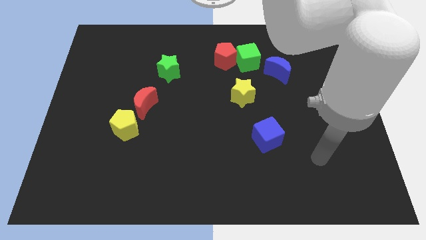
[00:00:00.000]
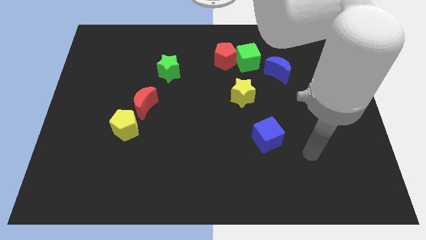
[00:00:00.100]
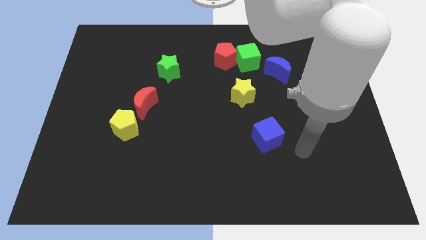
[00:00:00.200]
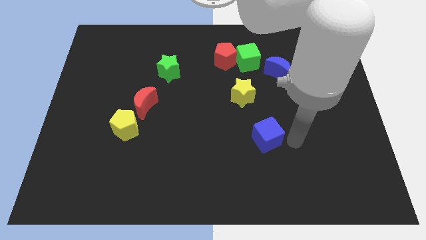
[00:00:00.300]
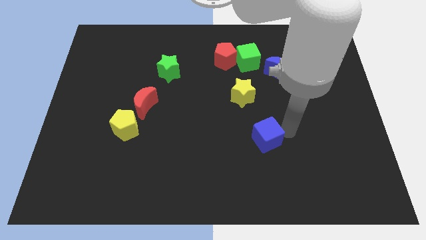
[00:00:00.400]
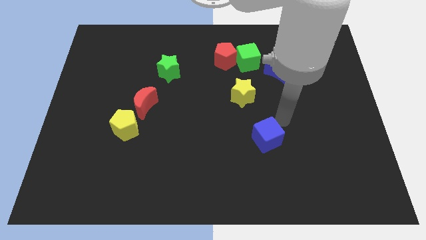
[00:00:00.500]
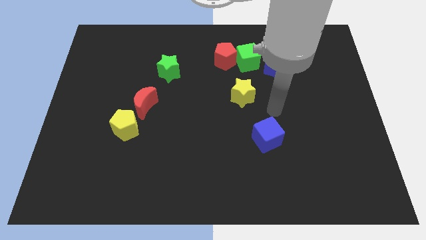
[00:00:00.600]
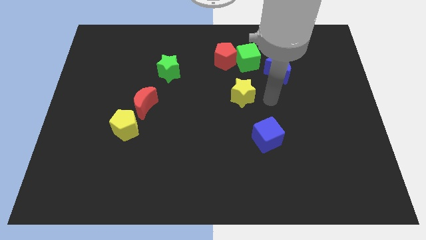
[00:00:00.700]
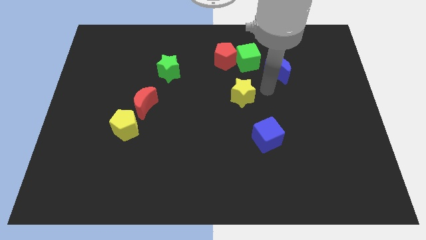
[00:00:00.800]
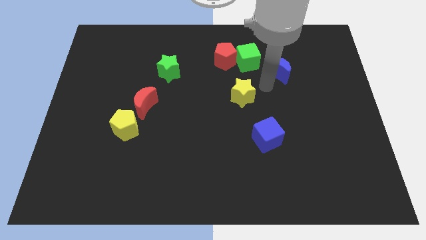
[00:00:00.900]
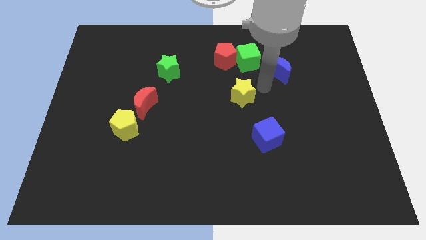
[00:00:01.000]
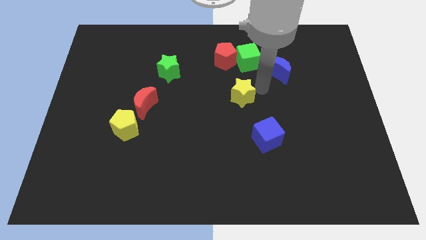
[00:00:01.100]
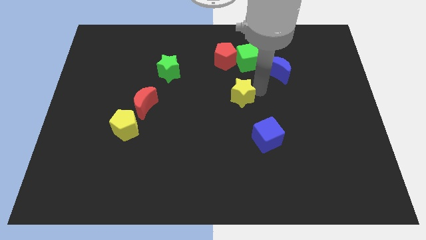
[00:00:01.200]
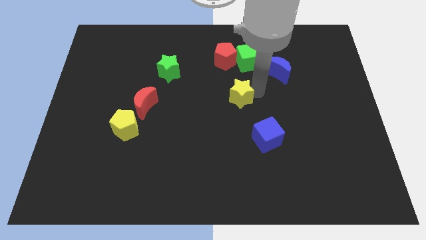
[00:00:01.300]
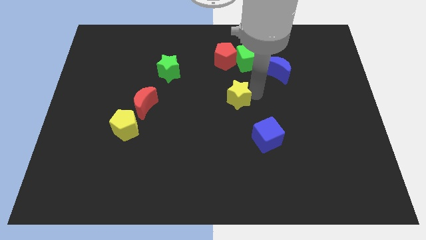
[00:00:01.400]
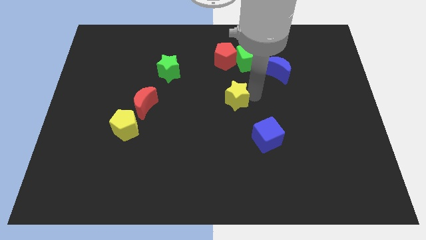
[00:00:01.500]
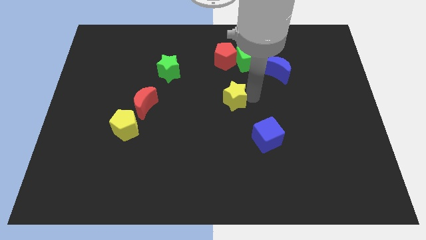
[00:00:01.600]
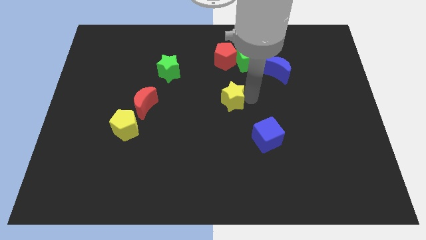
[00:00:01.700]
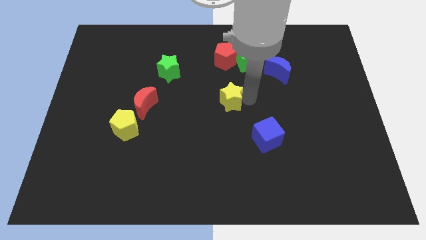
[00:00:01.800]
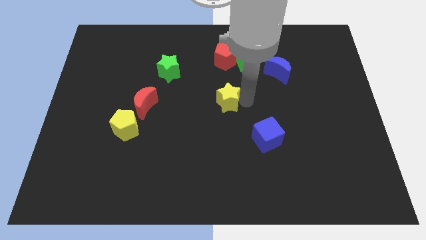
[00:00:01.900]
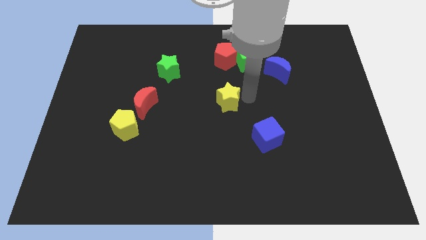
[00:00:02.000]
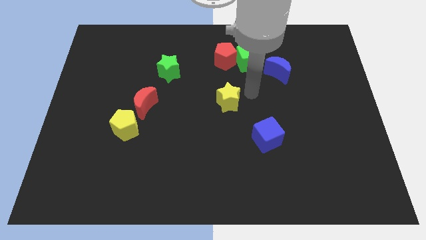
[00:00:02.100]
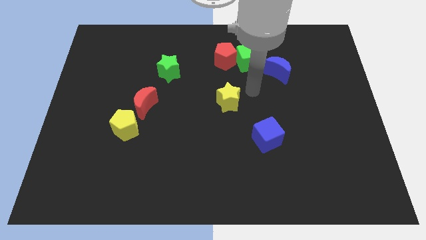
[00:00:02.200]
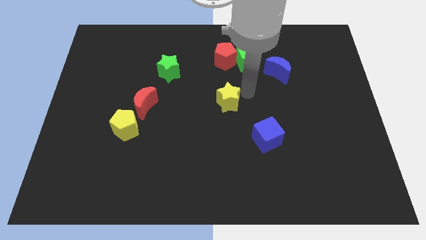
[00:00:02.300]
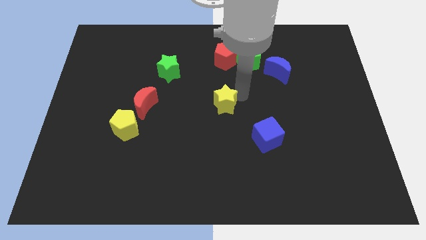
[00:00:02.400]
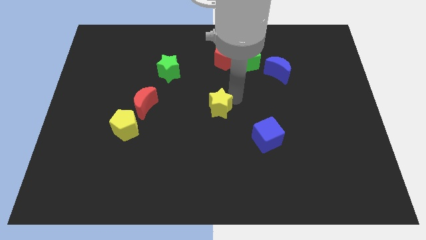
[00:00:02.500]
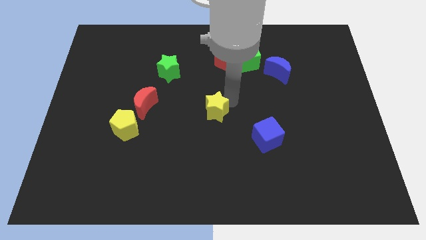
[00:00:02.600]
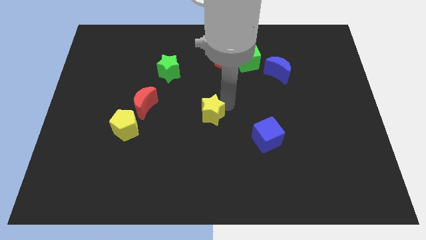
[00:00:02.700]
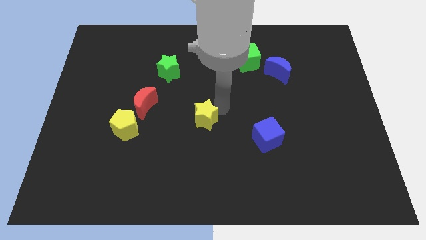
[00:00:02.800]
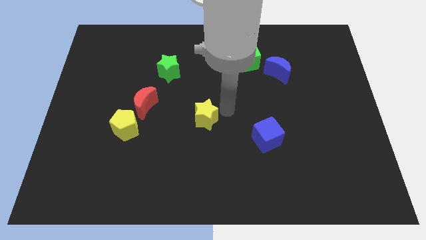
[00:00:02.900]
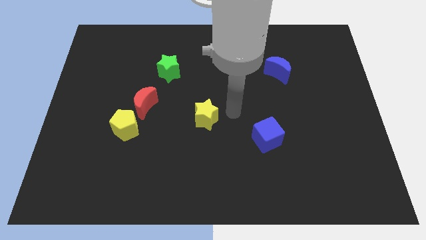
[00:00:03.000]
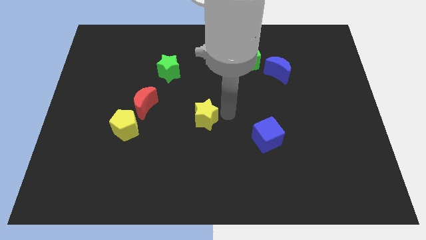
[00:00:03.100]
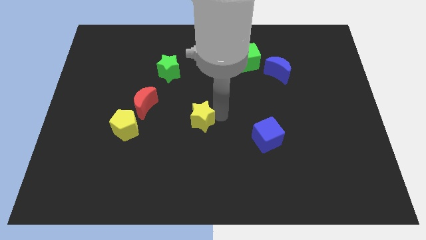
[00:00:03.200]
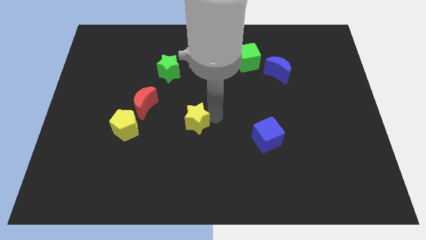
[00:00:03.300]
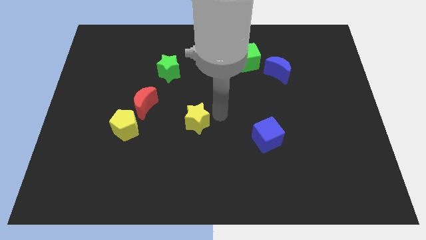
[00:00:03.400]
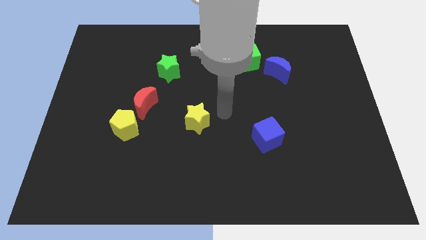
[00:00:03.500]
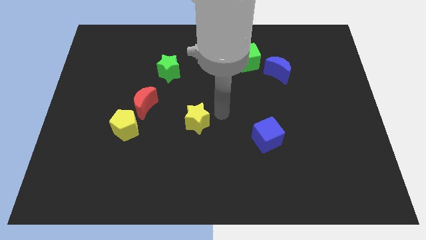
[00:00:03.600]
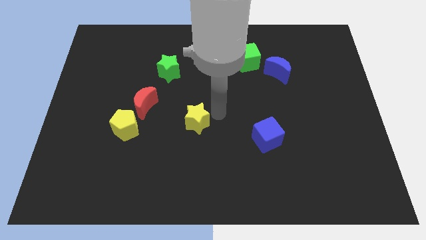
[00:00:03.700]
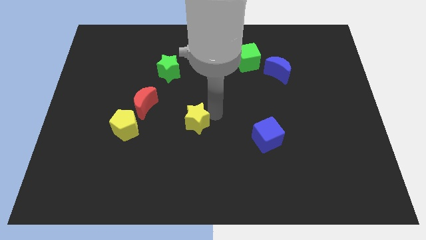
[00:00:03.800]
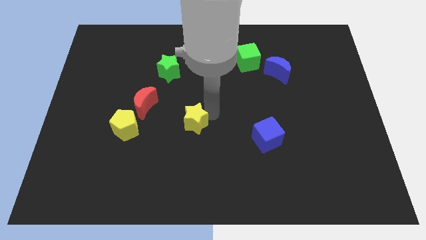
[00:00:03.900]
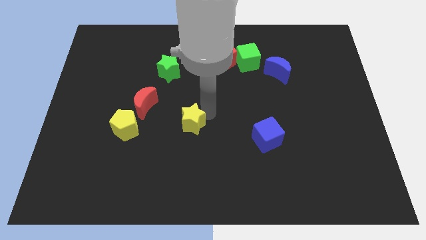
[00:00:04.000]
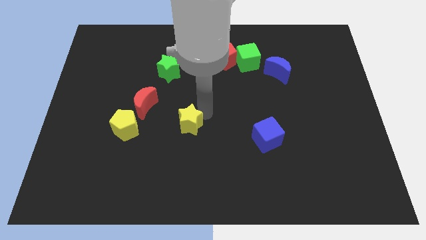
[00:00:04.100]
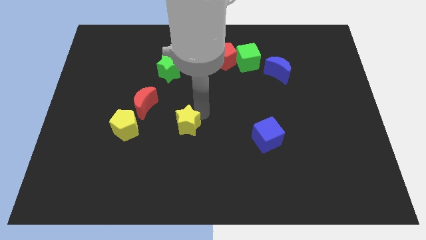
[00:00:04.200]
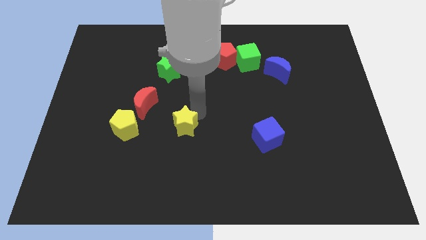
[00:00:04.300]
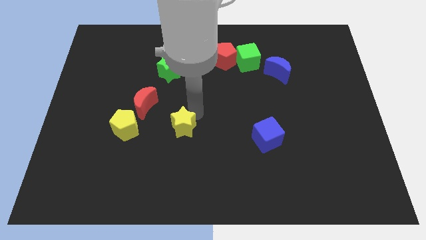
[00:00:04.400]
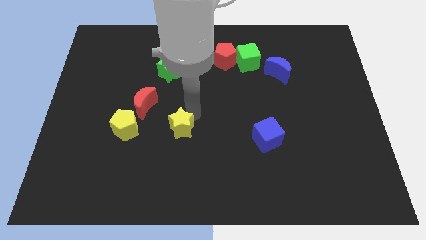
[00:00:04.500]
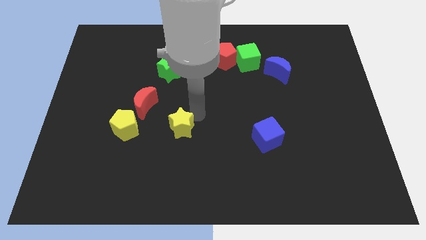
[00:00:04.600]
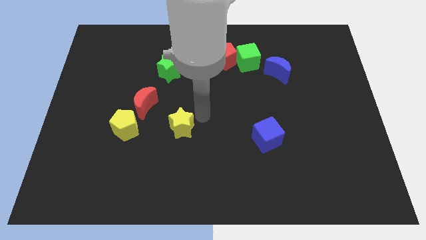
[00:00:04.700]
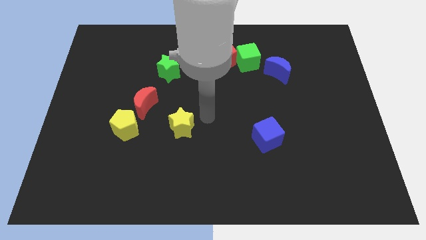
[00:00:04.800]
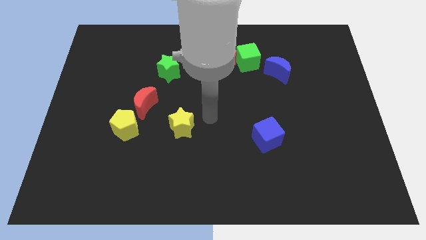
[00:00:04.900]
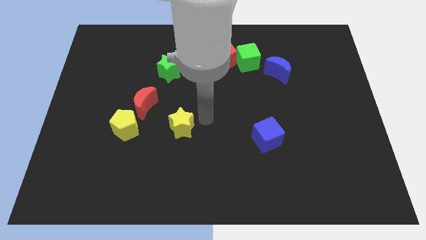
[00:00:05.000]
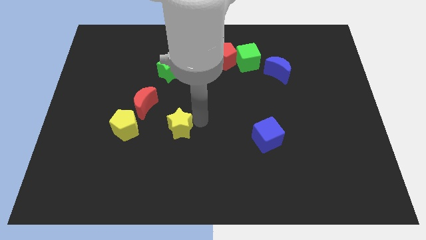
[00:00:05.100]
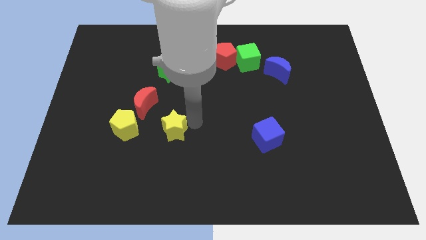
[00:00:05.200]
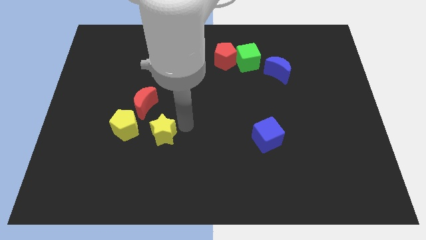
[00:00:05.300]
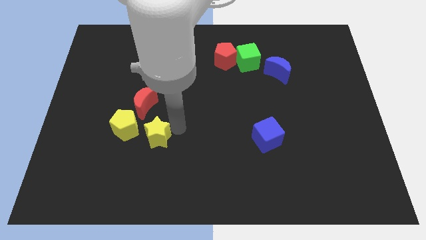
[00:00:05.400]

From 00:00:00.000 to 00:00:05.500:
move the yellow star to the bottom of the red moon
